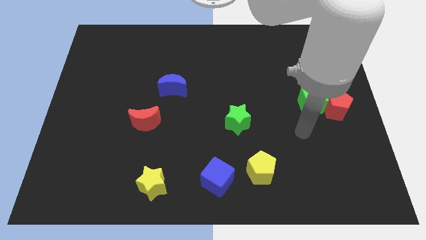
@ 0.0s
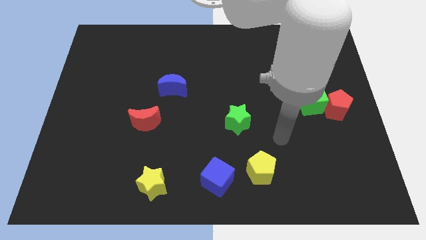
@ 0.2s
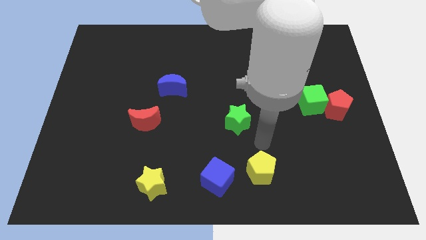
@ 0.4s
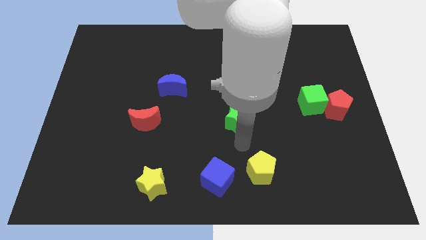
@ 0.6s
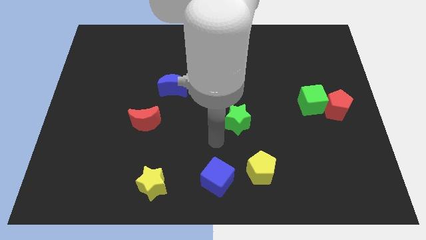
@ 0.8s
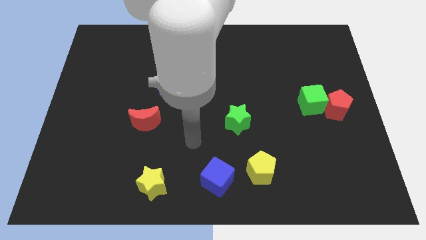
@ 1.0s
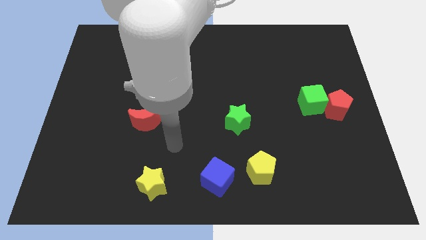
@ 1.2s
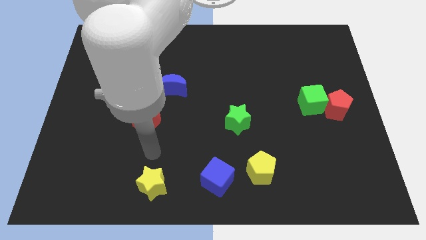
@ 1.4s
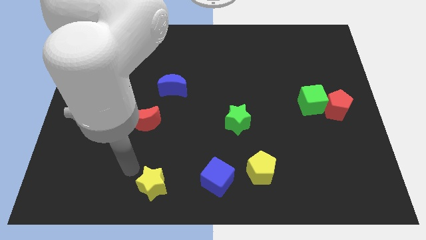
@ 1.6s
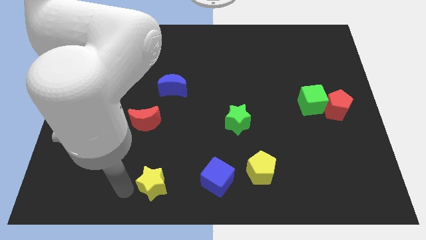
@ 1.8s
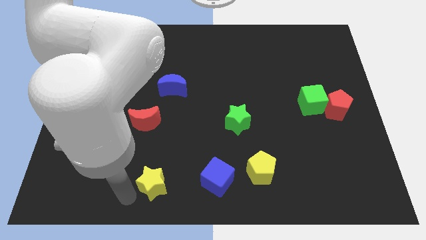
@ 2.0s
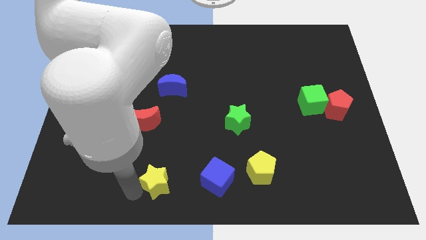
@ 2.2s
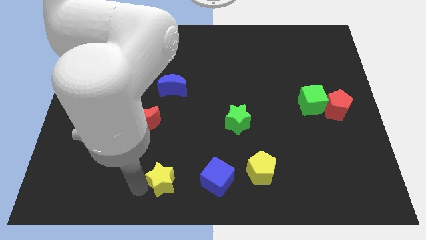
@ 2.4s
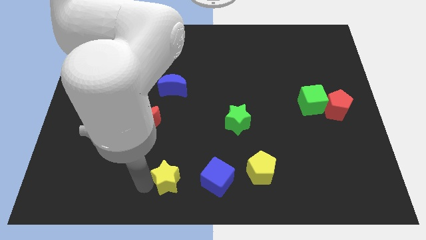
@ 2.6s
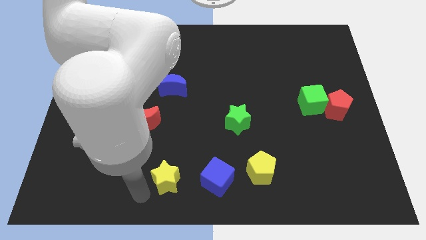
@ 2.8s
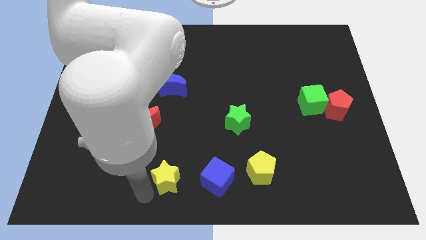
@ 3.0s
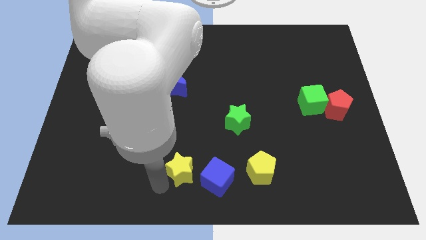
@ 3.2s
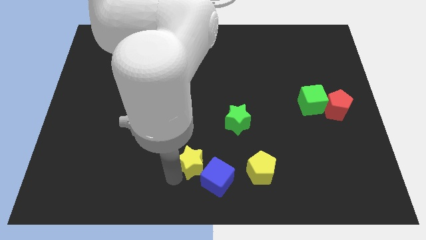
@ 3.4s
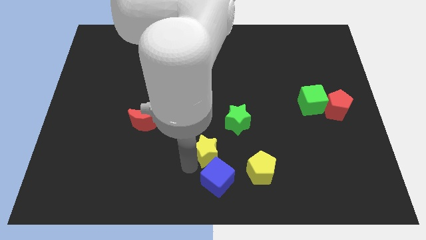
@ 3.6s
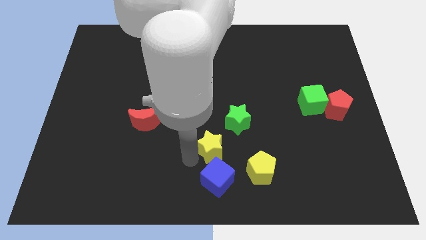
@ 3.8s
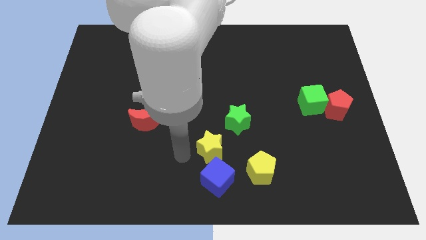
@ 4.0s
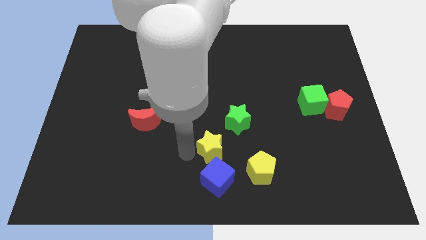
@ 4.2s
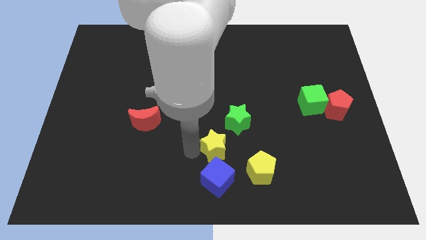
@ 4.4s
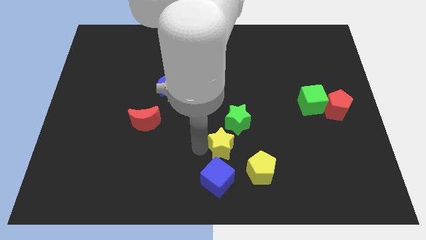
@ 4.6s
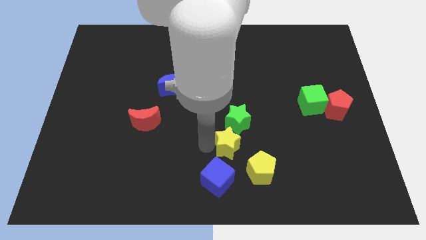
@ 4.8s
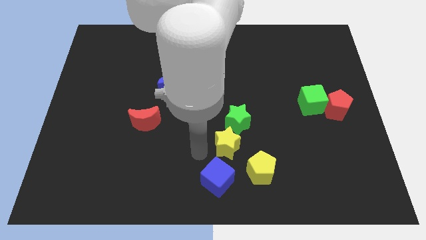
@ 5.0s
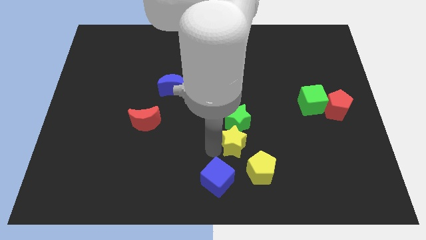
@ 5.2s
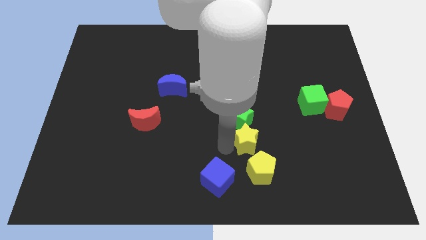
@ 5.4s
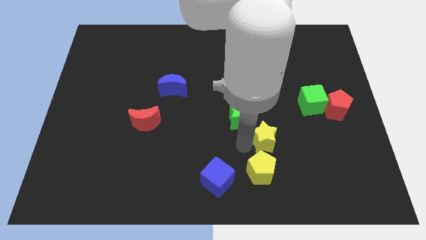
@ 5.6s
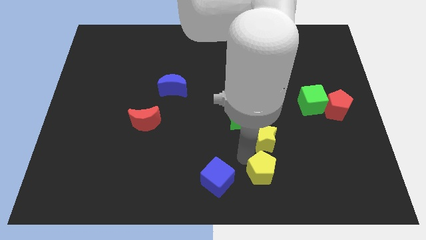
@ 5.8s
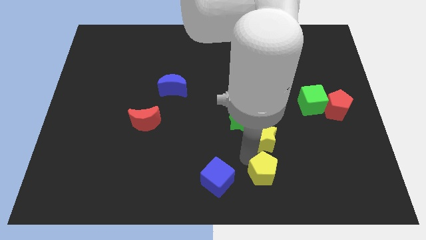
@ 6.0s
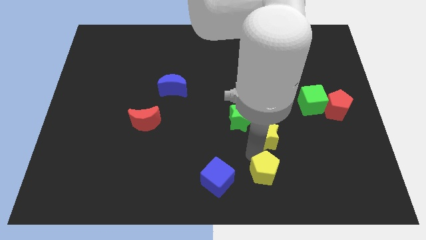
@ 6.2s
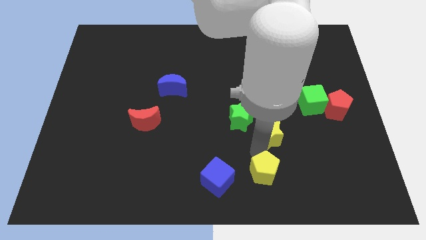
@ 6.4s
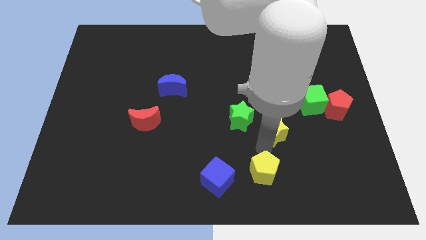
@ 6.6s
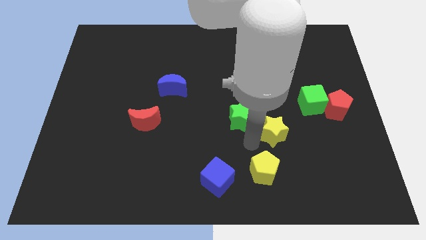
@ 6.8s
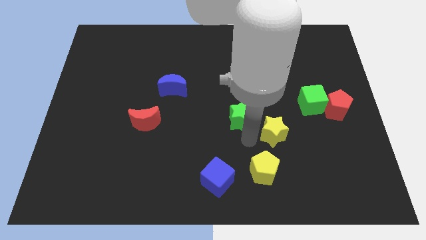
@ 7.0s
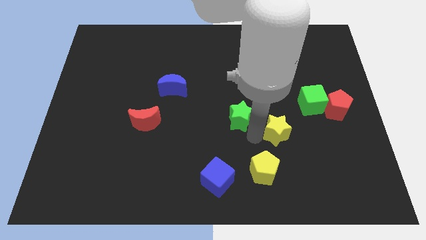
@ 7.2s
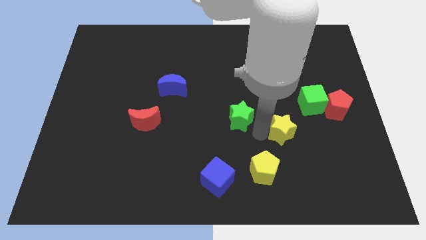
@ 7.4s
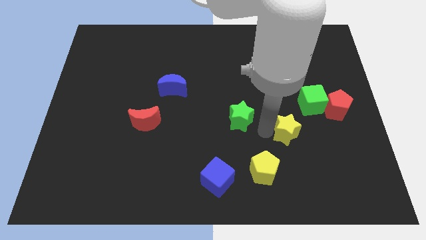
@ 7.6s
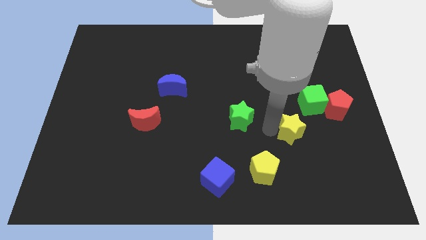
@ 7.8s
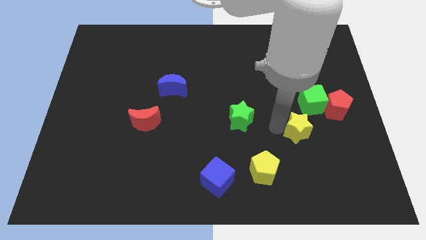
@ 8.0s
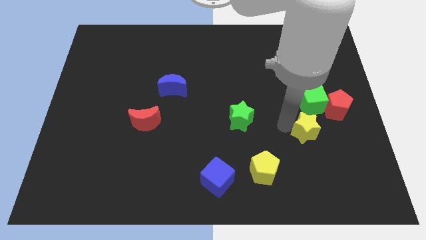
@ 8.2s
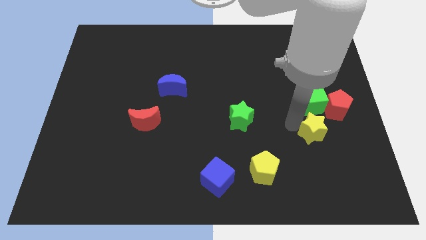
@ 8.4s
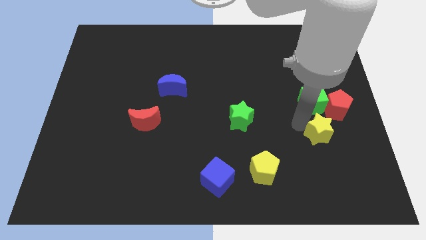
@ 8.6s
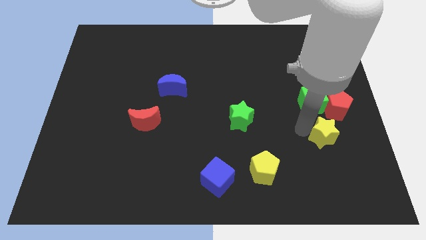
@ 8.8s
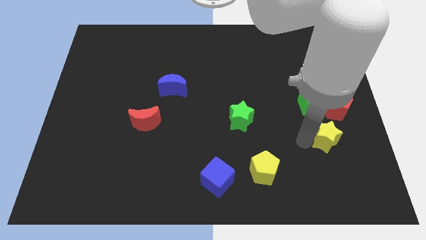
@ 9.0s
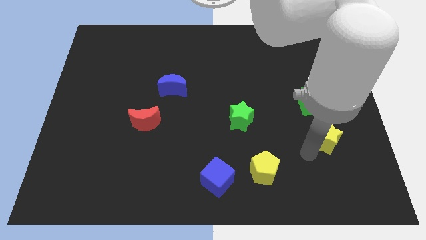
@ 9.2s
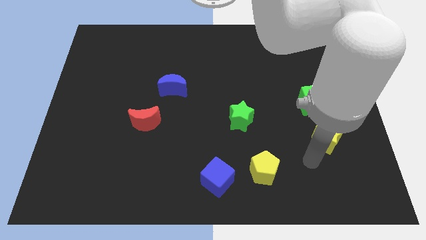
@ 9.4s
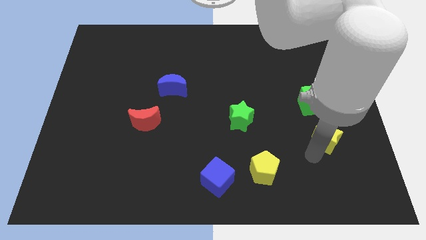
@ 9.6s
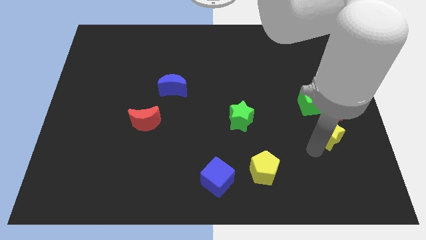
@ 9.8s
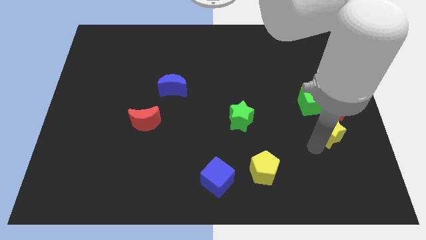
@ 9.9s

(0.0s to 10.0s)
push the yellow star to the bottom right of the green cube

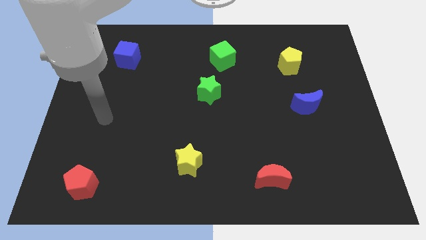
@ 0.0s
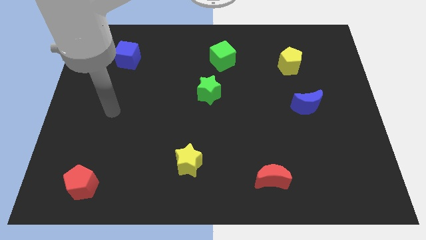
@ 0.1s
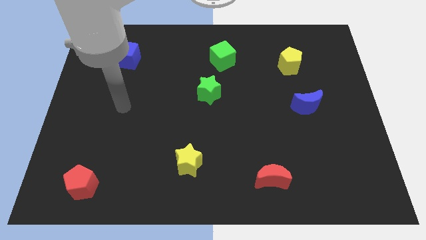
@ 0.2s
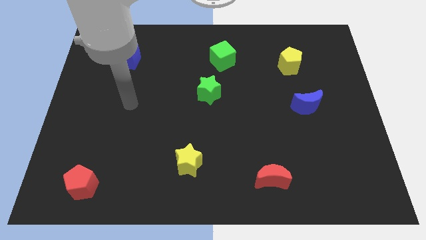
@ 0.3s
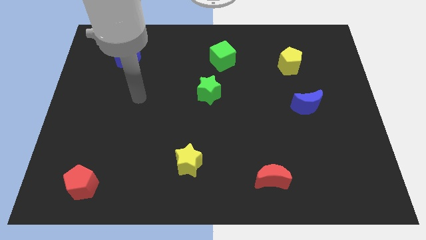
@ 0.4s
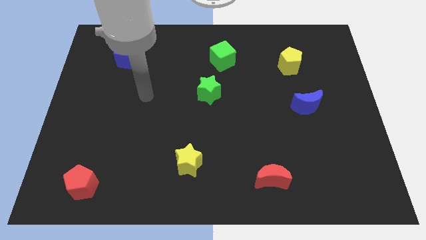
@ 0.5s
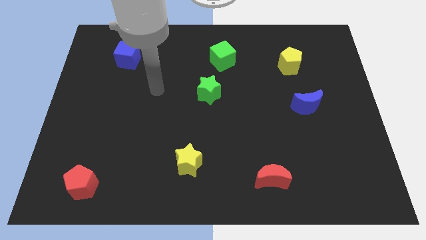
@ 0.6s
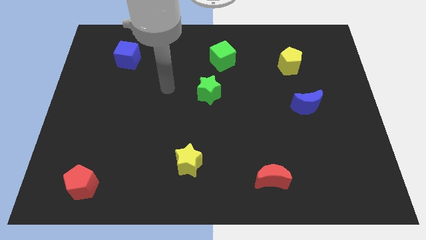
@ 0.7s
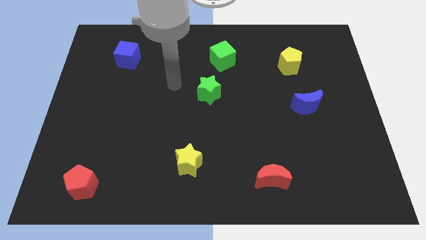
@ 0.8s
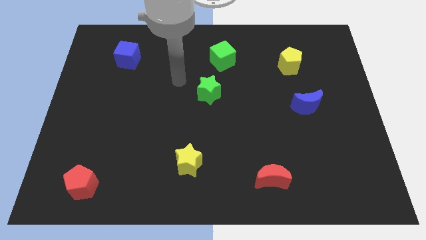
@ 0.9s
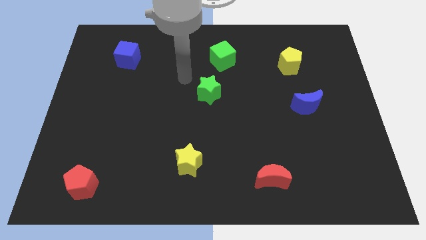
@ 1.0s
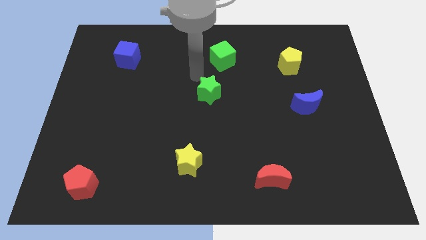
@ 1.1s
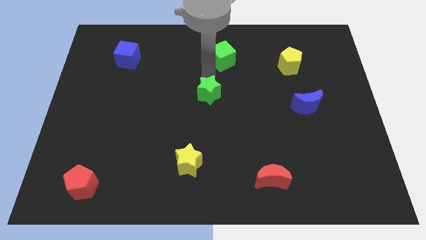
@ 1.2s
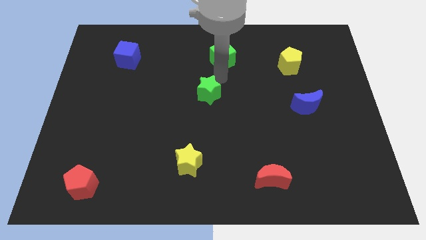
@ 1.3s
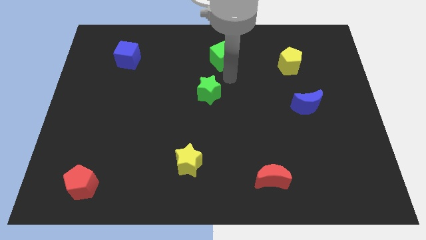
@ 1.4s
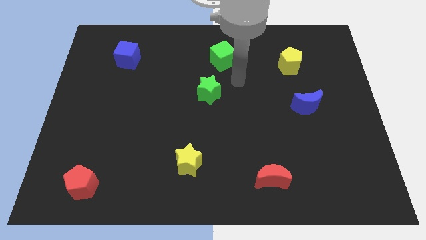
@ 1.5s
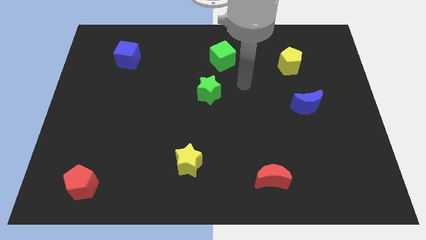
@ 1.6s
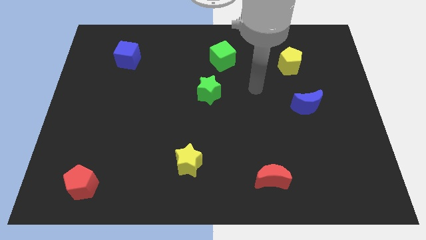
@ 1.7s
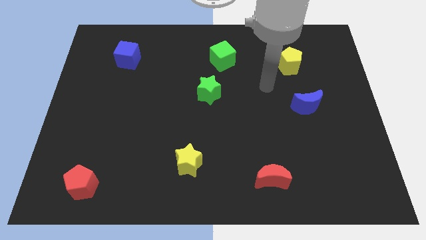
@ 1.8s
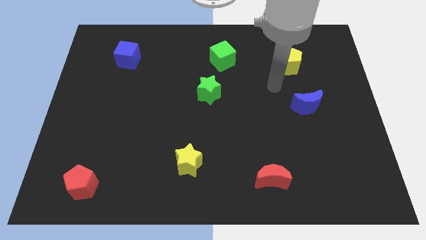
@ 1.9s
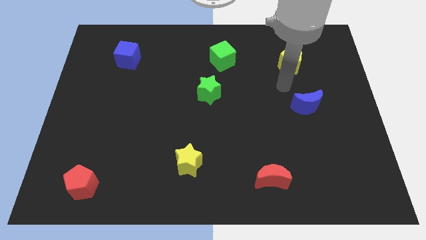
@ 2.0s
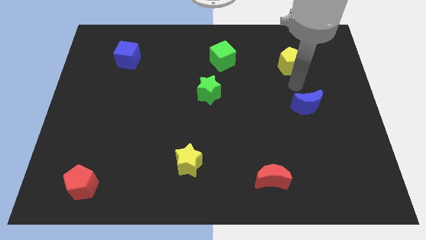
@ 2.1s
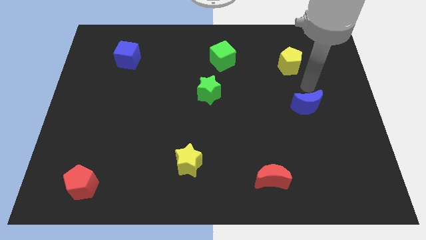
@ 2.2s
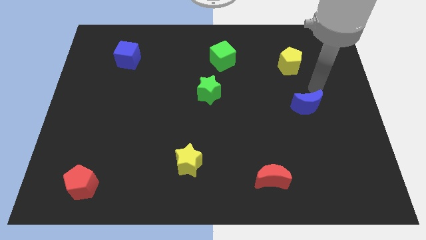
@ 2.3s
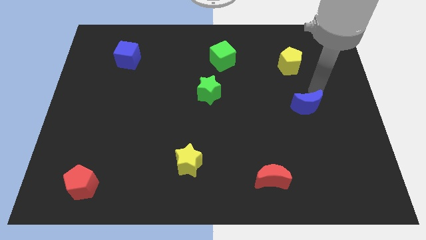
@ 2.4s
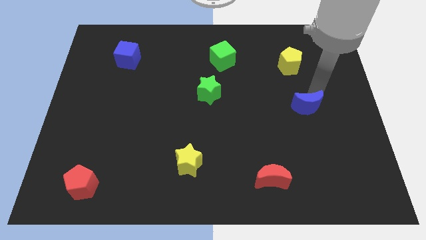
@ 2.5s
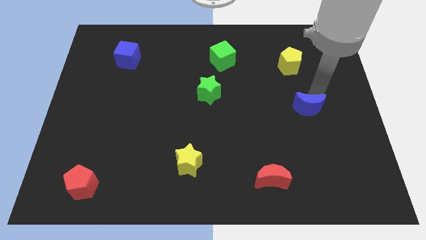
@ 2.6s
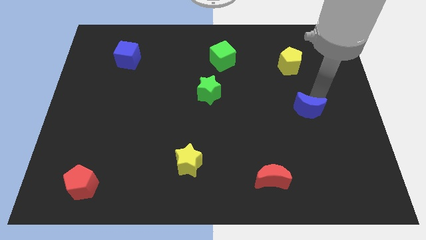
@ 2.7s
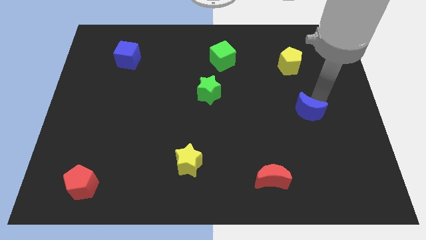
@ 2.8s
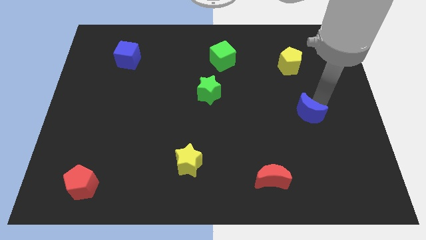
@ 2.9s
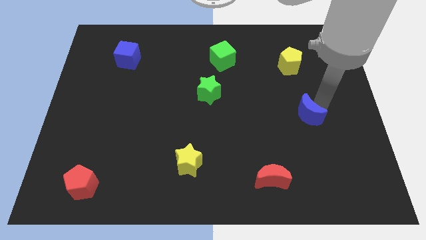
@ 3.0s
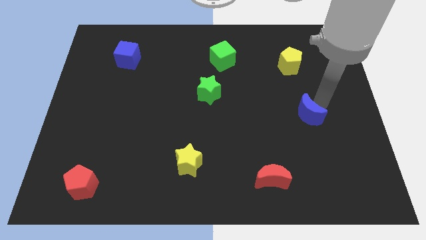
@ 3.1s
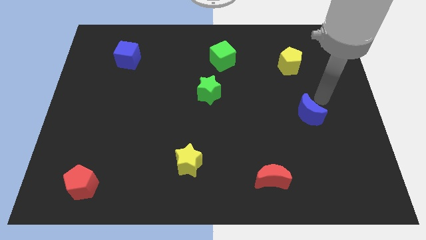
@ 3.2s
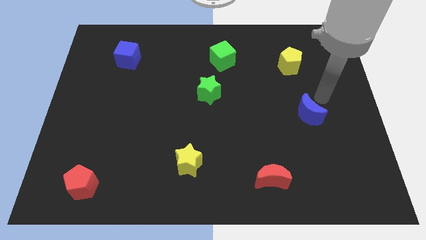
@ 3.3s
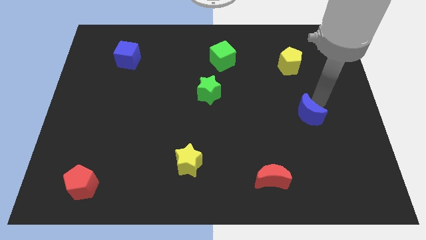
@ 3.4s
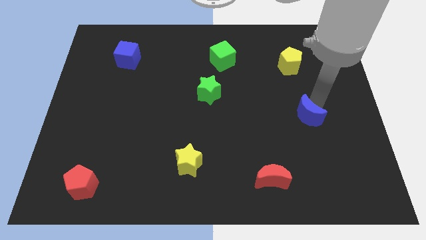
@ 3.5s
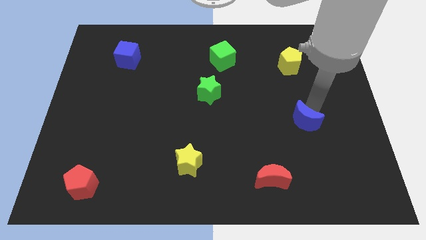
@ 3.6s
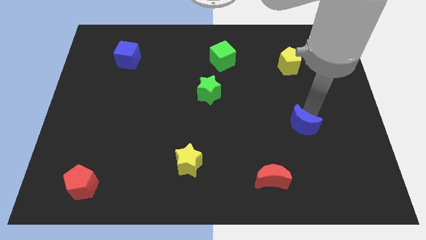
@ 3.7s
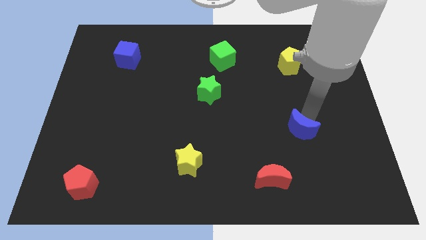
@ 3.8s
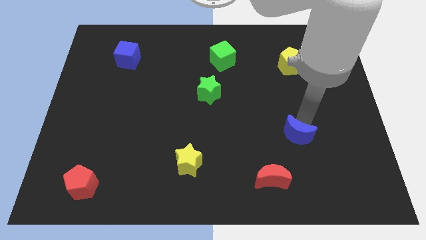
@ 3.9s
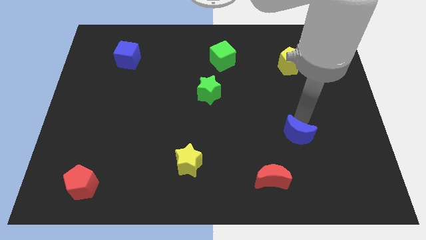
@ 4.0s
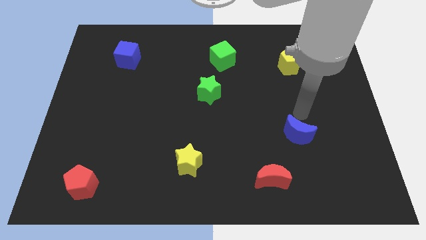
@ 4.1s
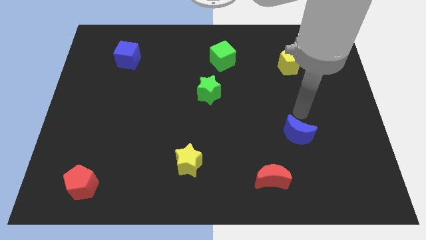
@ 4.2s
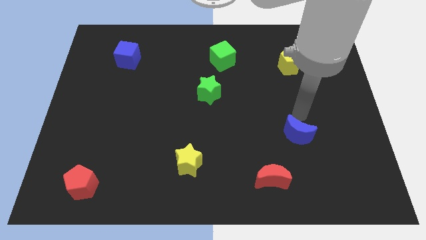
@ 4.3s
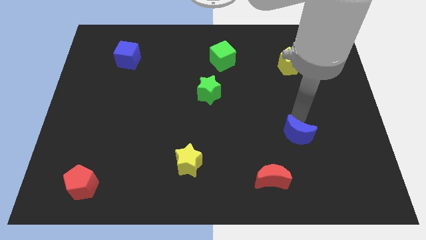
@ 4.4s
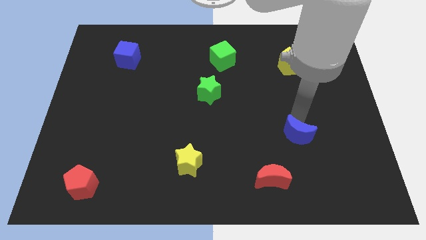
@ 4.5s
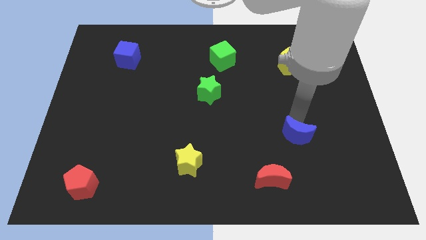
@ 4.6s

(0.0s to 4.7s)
push the blue moon to the top right of the red moon
